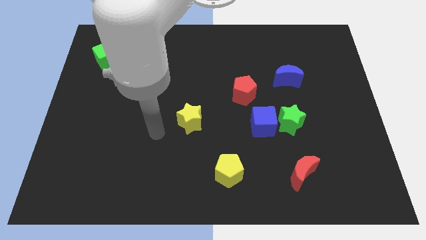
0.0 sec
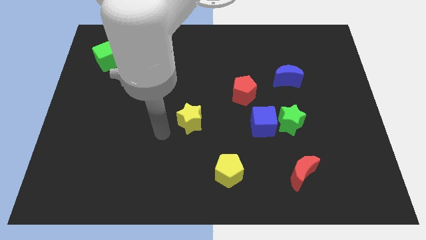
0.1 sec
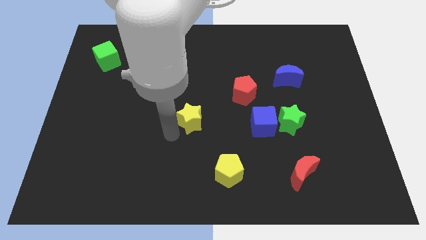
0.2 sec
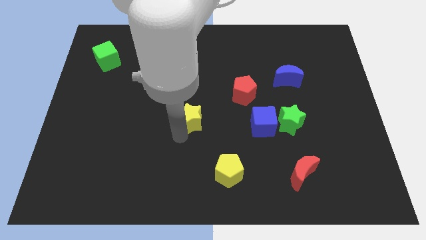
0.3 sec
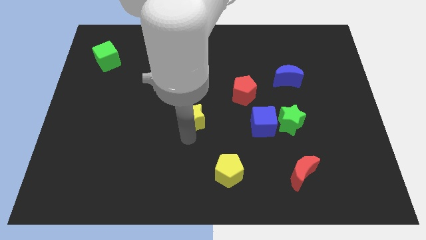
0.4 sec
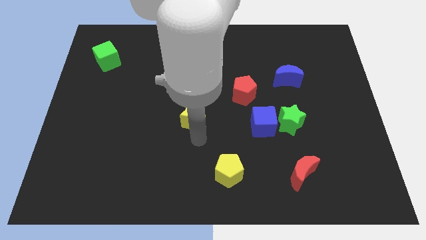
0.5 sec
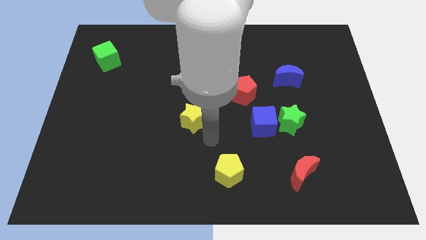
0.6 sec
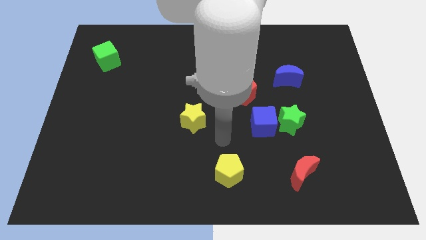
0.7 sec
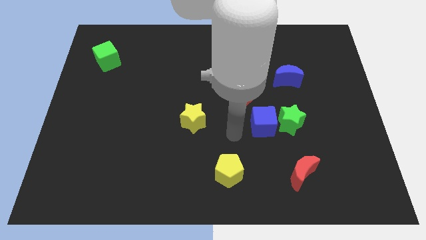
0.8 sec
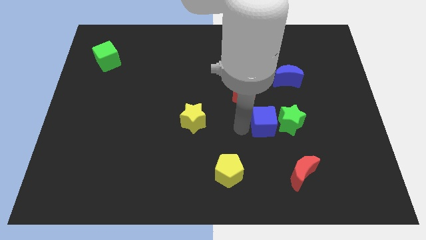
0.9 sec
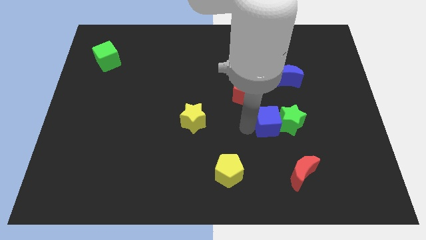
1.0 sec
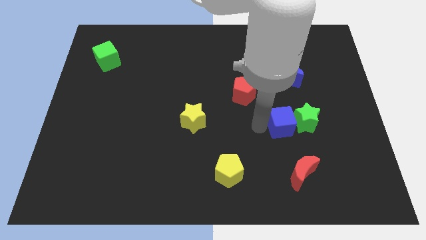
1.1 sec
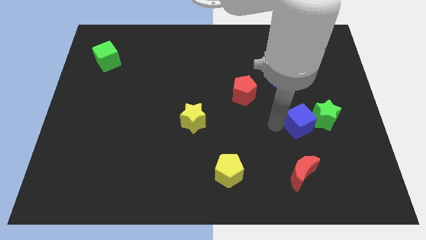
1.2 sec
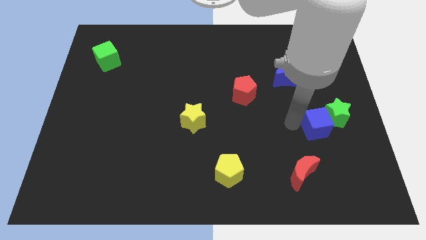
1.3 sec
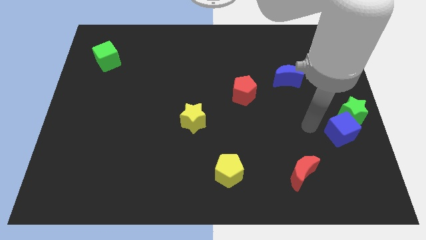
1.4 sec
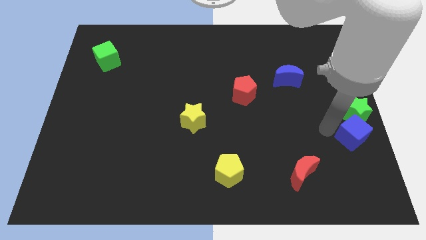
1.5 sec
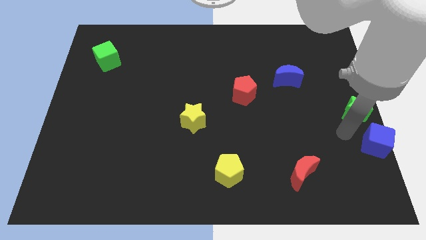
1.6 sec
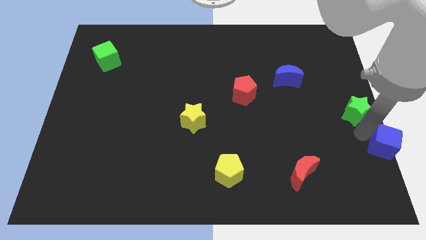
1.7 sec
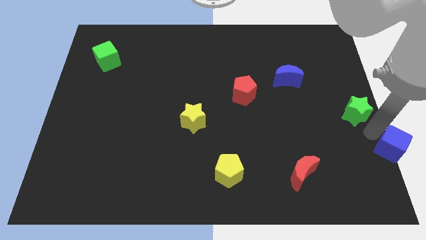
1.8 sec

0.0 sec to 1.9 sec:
pull the green star apart from the blue cube

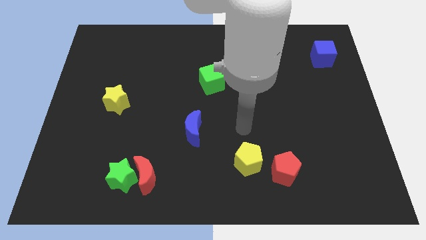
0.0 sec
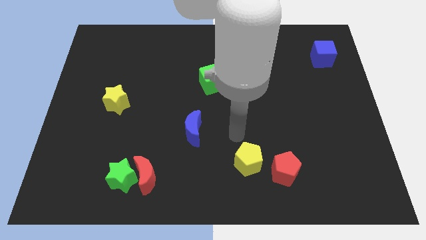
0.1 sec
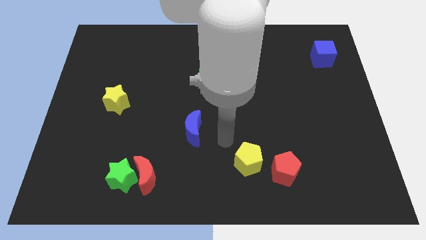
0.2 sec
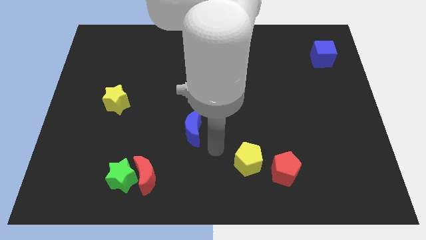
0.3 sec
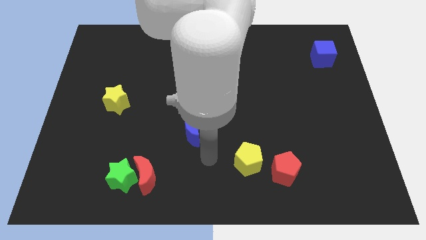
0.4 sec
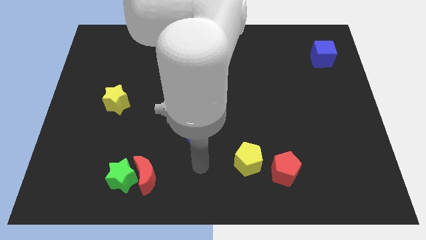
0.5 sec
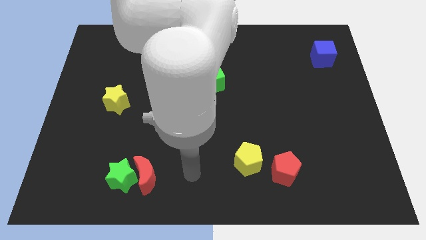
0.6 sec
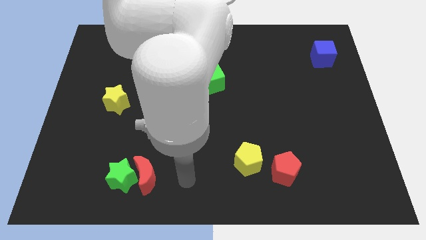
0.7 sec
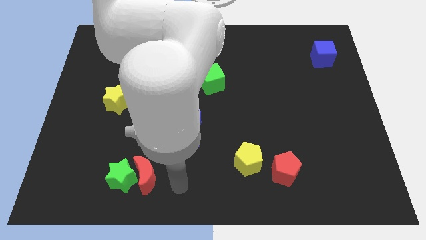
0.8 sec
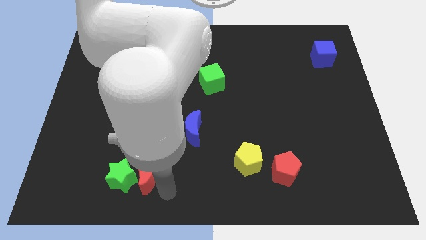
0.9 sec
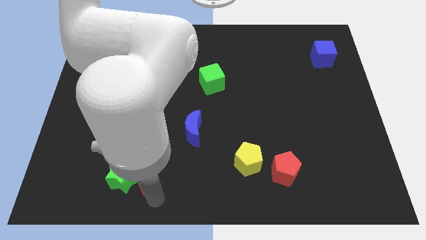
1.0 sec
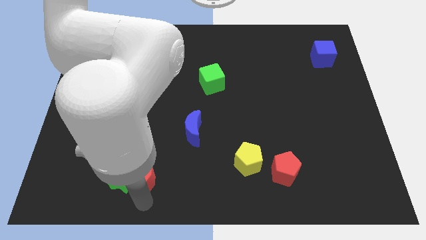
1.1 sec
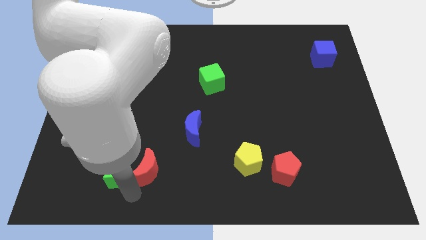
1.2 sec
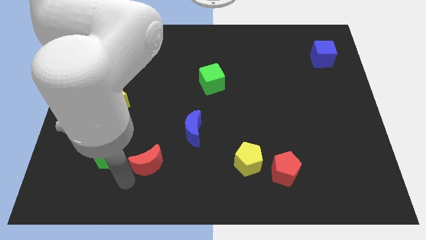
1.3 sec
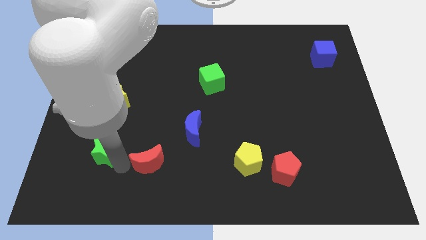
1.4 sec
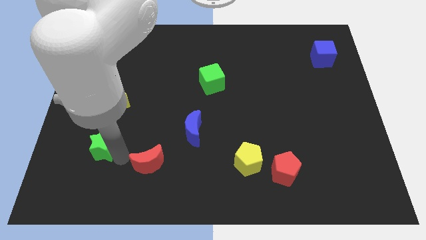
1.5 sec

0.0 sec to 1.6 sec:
pull the red moon apart from the green star

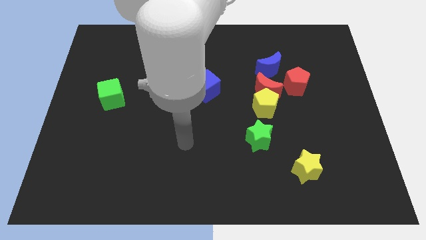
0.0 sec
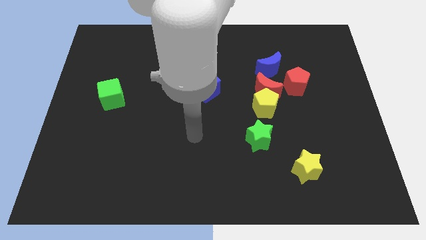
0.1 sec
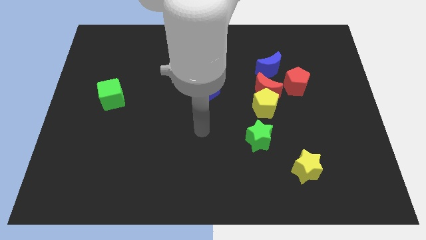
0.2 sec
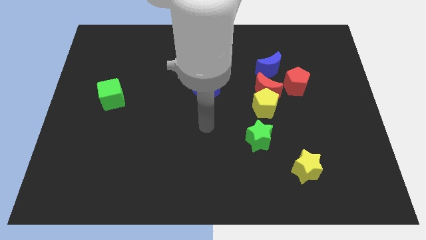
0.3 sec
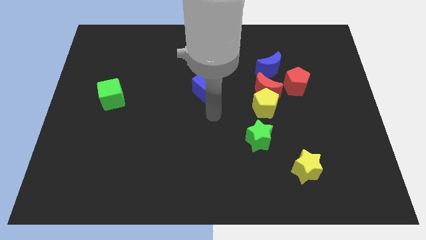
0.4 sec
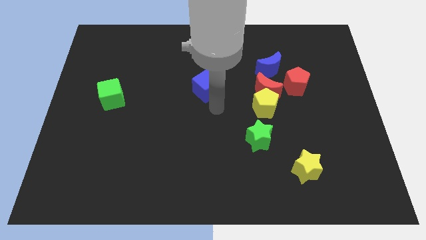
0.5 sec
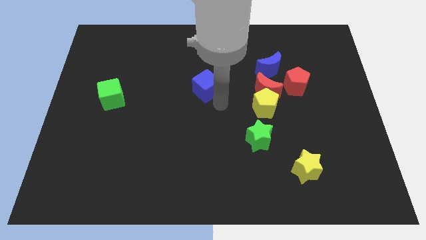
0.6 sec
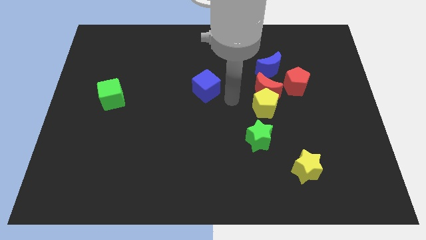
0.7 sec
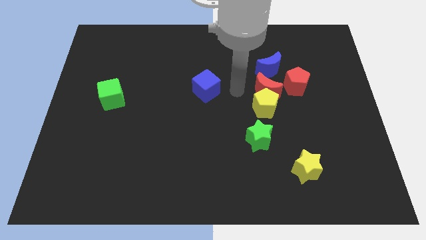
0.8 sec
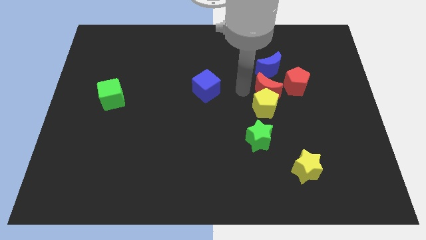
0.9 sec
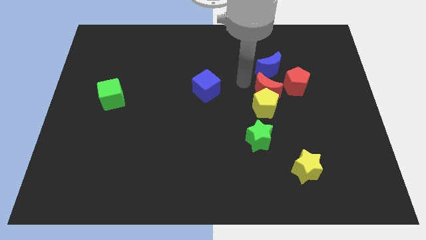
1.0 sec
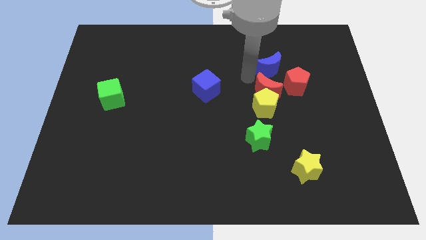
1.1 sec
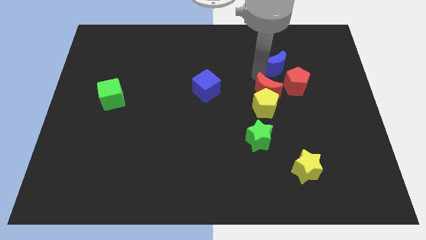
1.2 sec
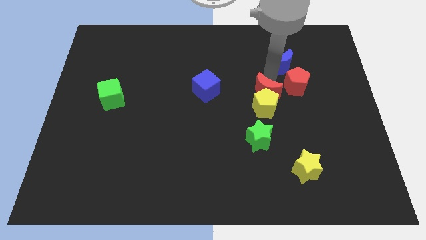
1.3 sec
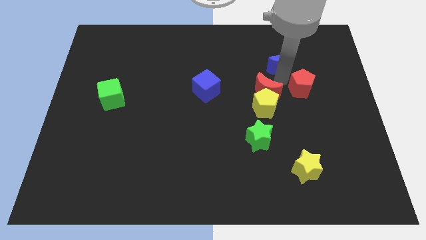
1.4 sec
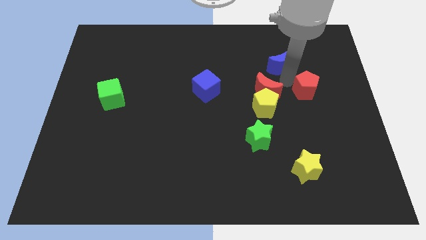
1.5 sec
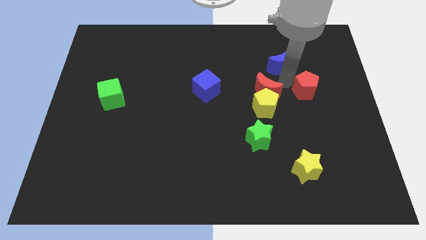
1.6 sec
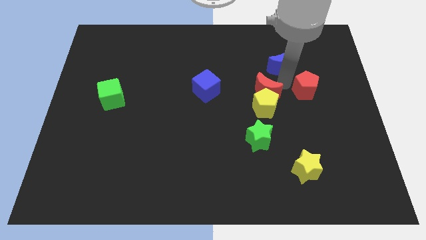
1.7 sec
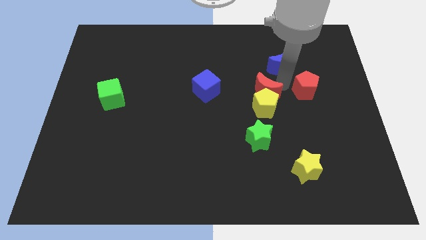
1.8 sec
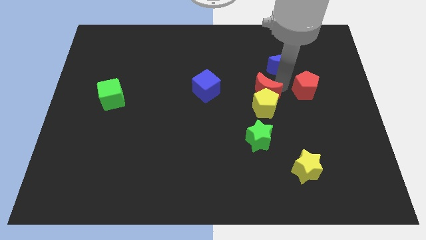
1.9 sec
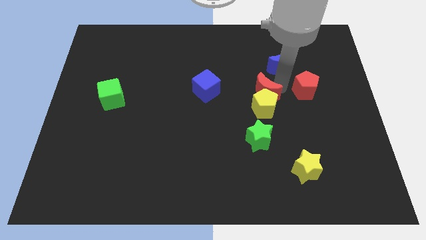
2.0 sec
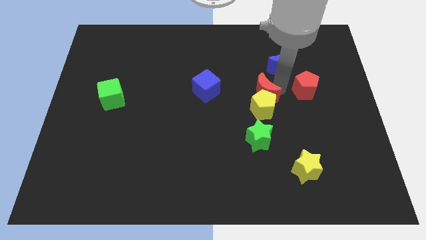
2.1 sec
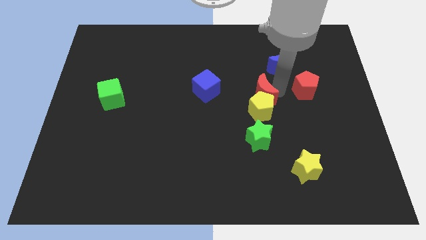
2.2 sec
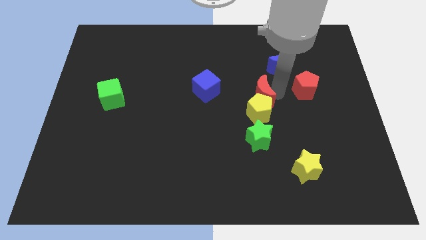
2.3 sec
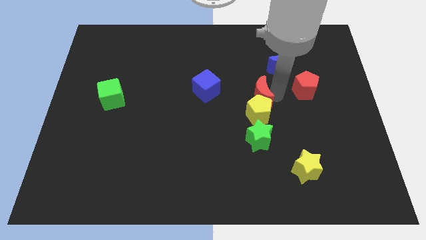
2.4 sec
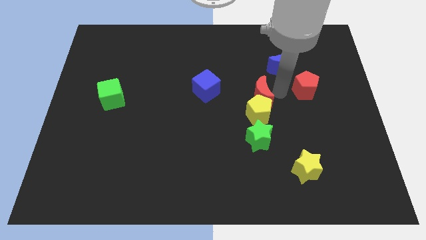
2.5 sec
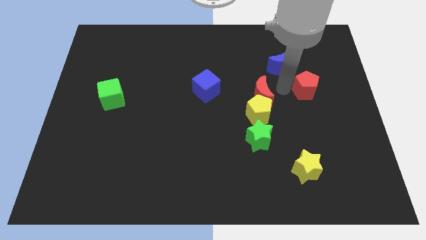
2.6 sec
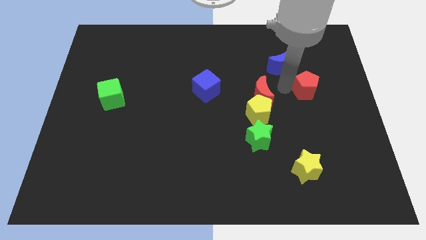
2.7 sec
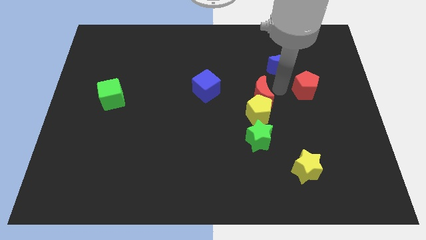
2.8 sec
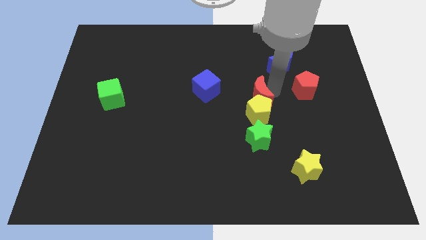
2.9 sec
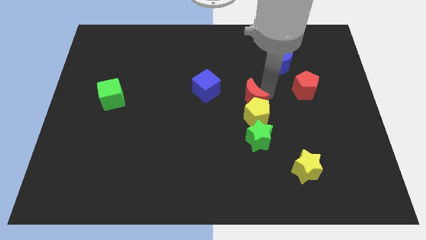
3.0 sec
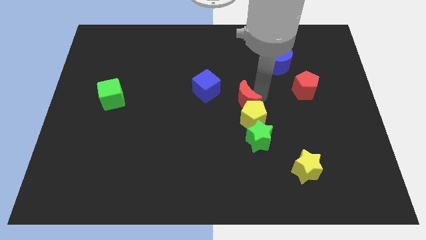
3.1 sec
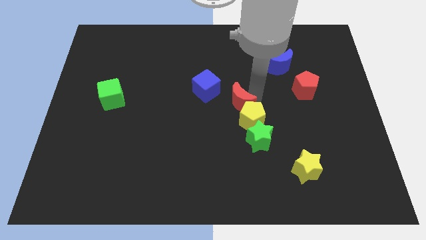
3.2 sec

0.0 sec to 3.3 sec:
pull the red moon apart from the yellow pentagon, blue moon, and red pentagon

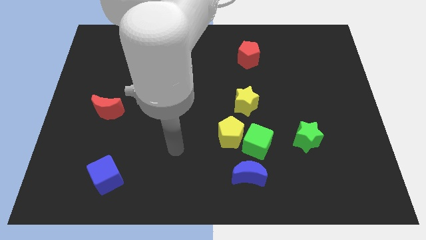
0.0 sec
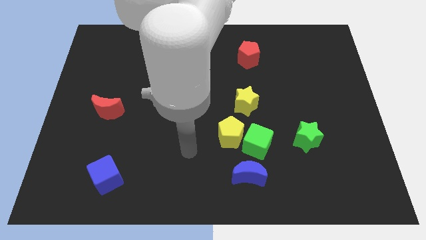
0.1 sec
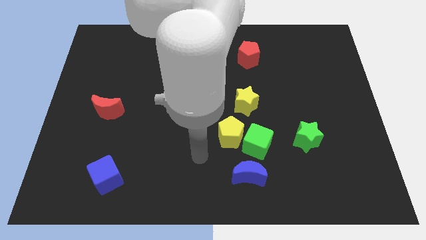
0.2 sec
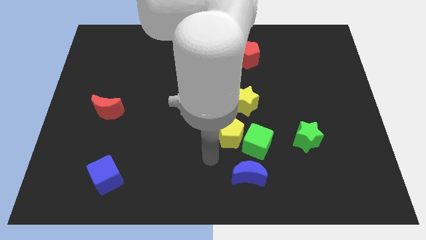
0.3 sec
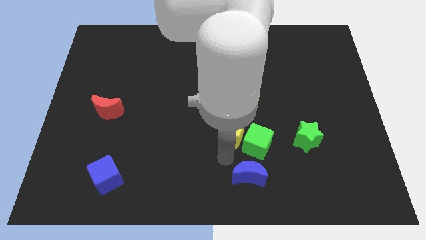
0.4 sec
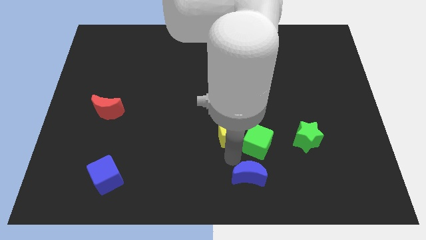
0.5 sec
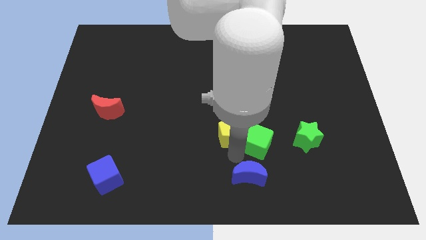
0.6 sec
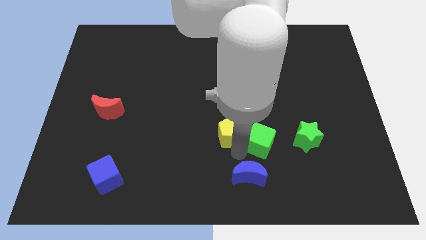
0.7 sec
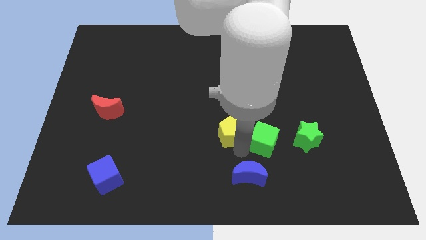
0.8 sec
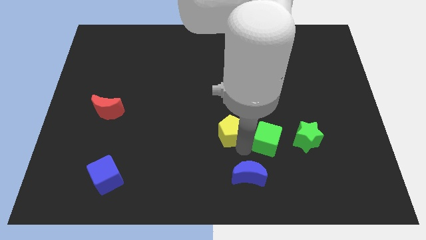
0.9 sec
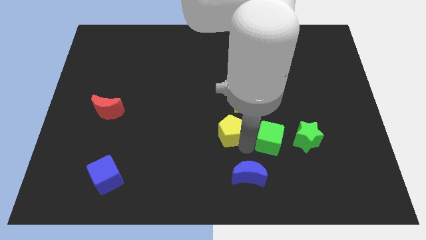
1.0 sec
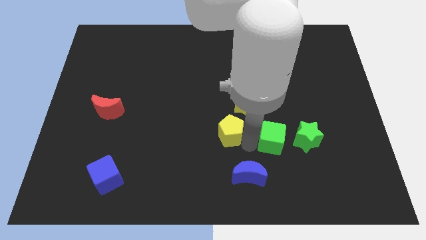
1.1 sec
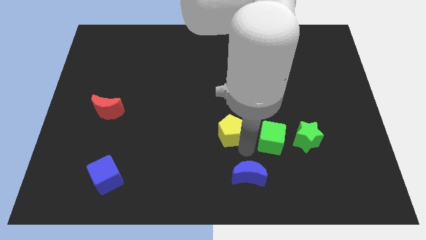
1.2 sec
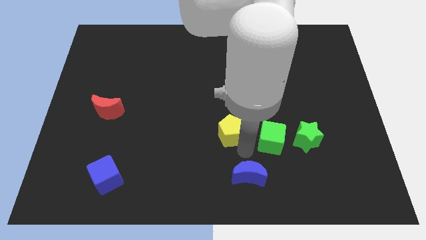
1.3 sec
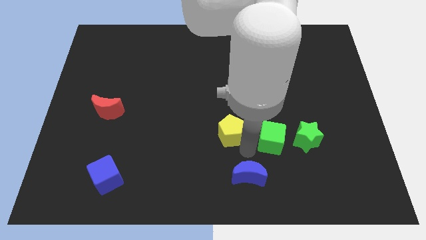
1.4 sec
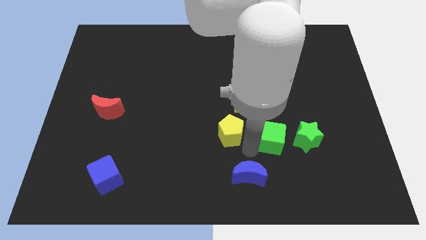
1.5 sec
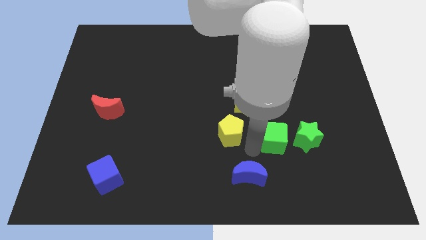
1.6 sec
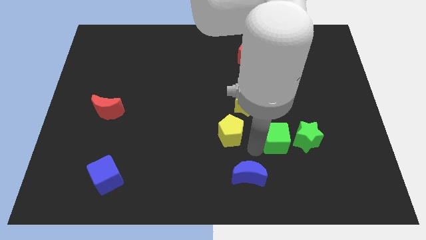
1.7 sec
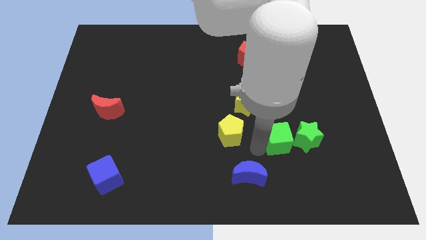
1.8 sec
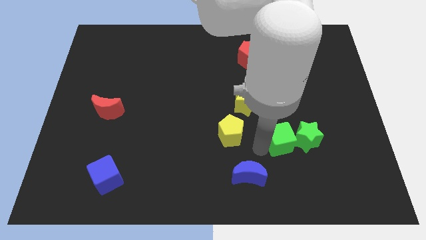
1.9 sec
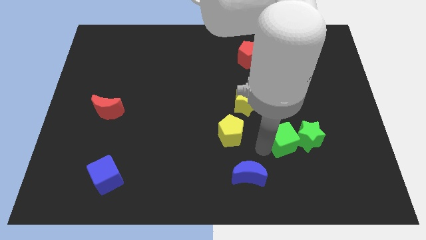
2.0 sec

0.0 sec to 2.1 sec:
move the green cube away from the yellow pentagon and blue moon

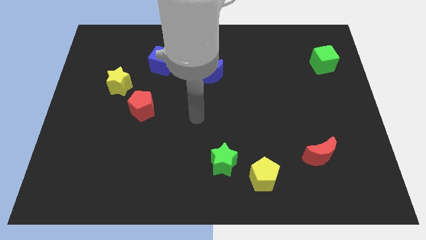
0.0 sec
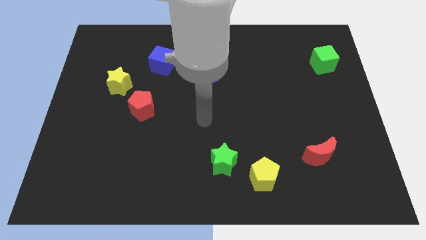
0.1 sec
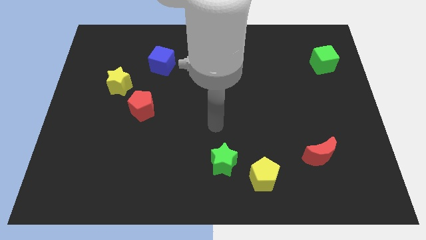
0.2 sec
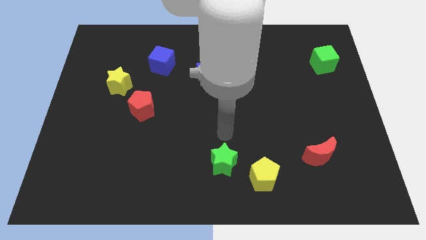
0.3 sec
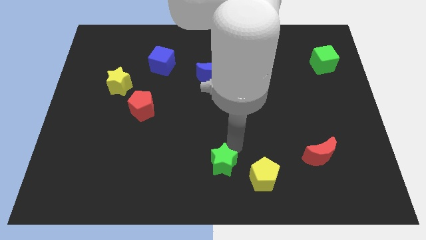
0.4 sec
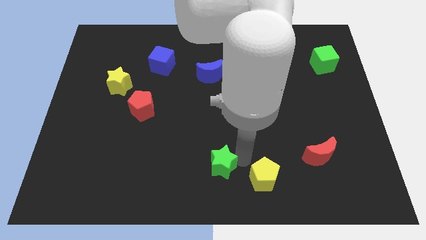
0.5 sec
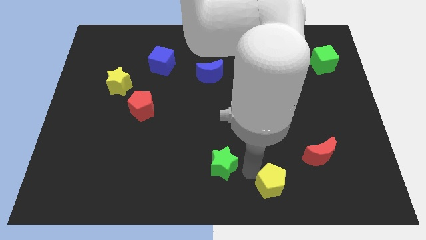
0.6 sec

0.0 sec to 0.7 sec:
pull the green star apart from the yellow pentagon
